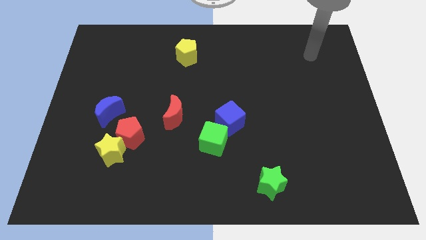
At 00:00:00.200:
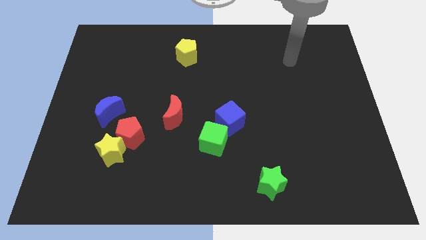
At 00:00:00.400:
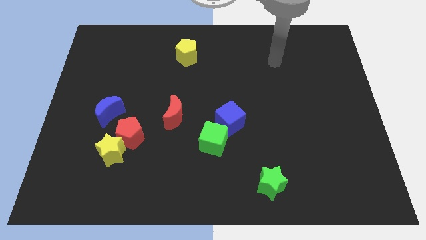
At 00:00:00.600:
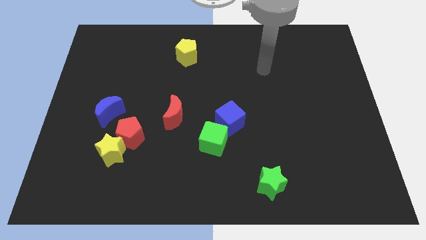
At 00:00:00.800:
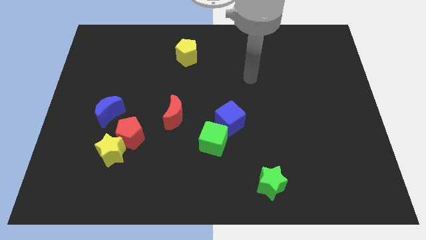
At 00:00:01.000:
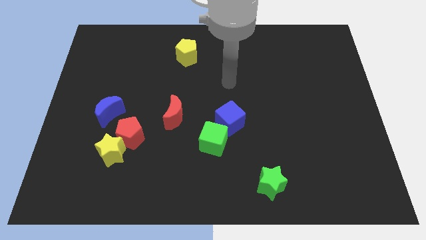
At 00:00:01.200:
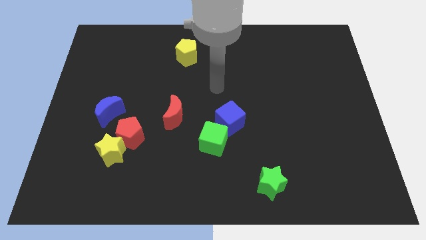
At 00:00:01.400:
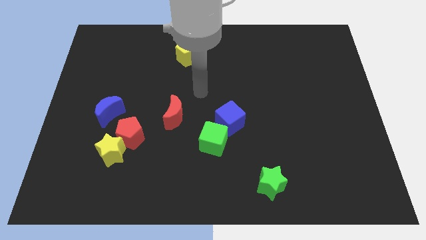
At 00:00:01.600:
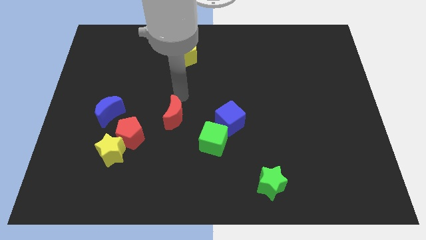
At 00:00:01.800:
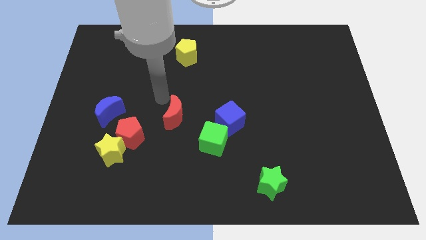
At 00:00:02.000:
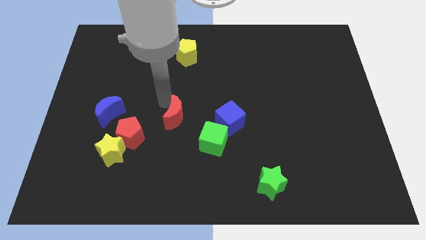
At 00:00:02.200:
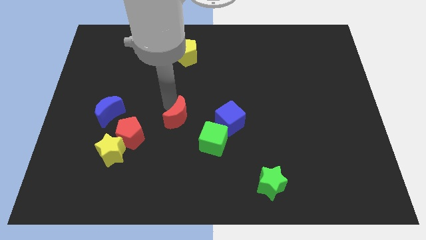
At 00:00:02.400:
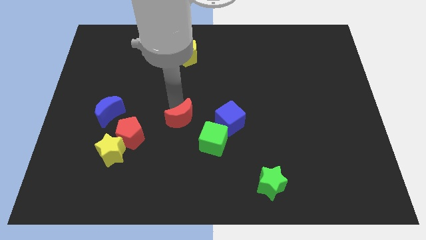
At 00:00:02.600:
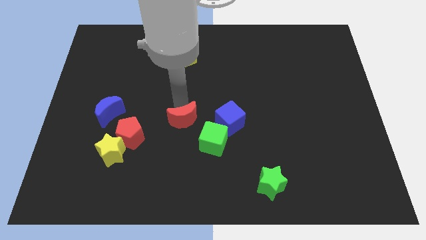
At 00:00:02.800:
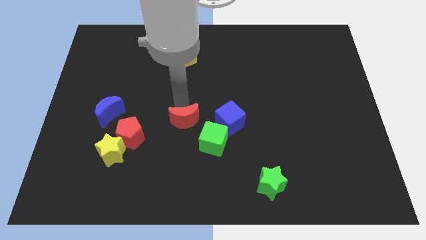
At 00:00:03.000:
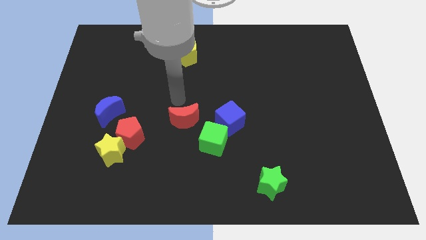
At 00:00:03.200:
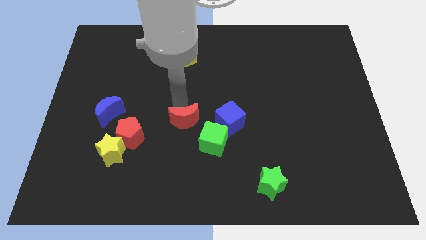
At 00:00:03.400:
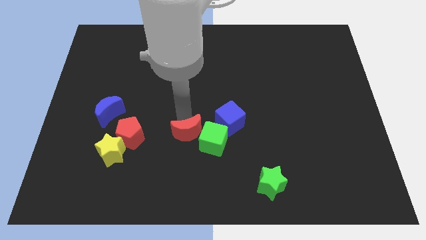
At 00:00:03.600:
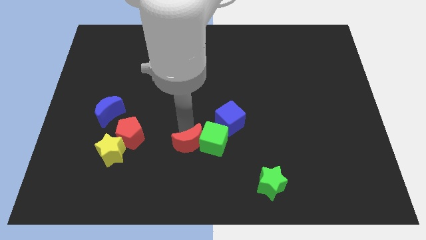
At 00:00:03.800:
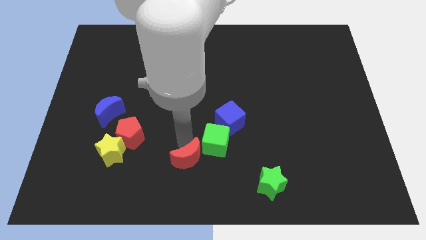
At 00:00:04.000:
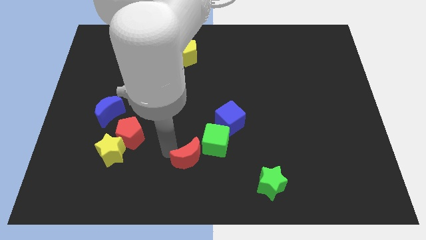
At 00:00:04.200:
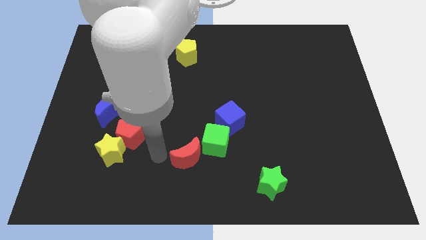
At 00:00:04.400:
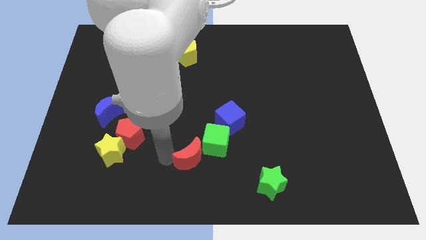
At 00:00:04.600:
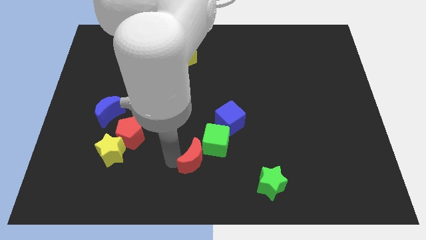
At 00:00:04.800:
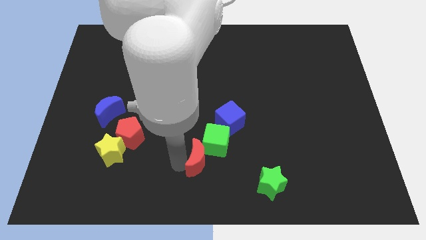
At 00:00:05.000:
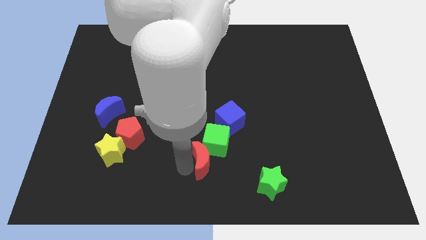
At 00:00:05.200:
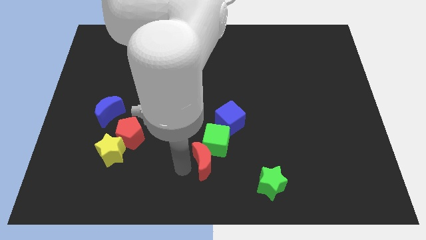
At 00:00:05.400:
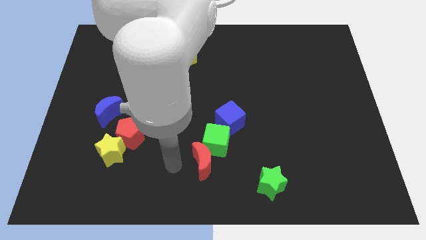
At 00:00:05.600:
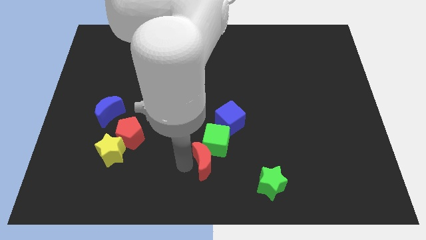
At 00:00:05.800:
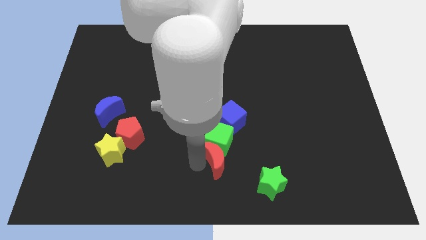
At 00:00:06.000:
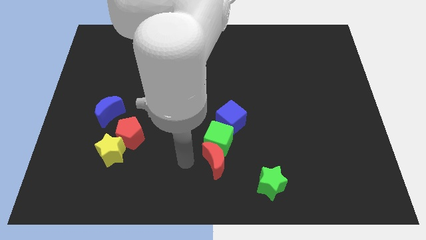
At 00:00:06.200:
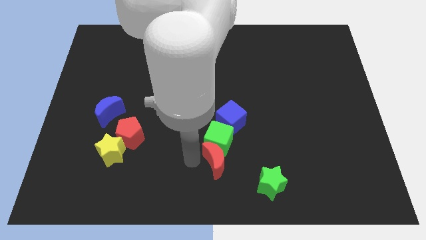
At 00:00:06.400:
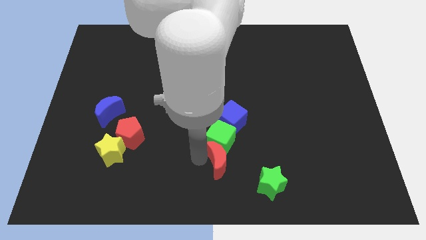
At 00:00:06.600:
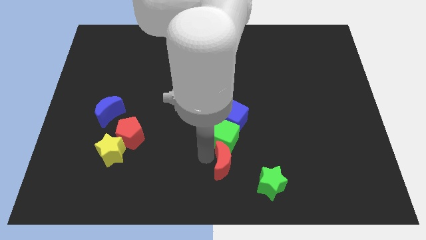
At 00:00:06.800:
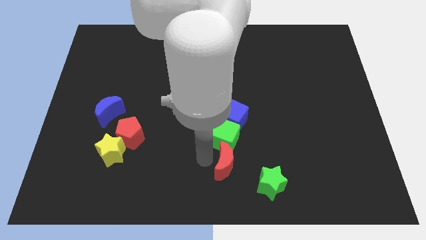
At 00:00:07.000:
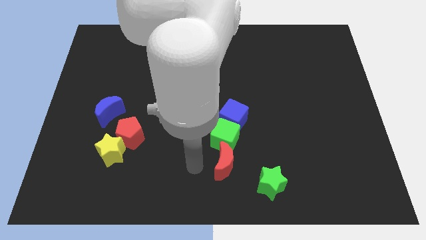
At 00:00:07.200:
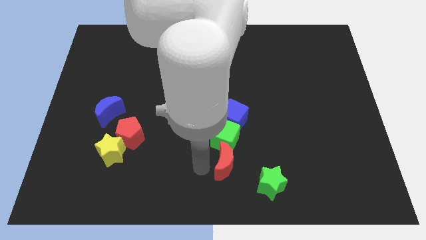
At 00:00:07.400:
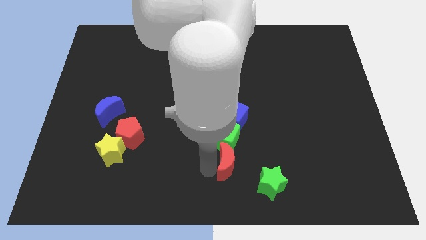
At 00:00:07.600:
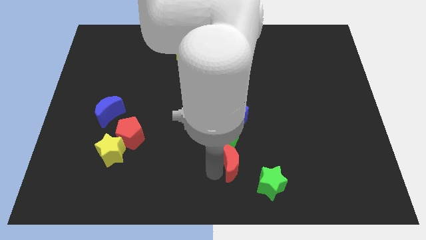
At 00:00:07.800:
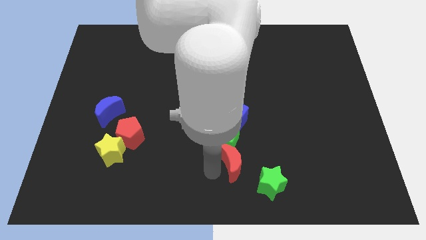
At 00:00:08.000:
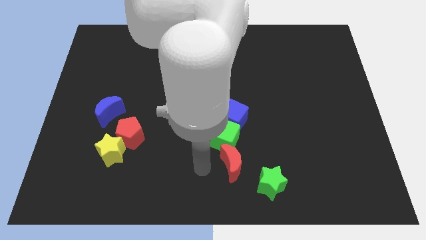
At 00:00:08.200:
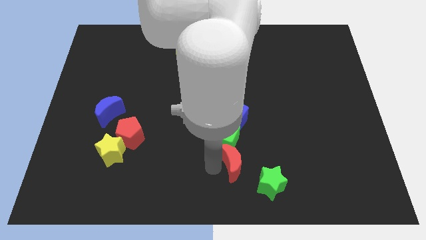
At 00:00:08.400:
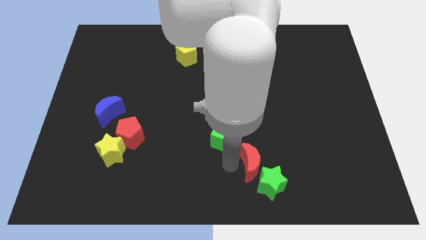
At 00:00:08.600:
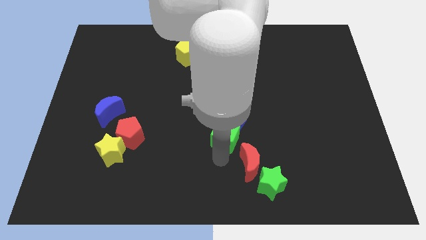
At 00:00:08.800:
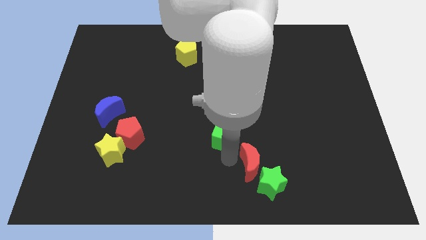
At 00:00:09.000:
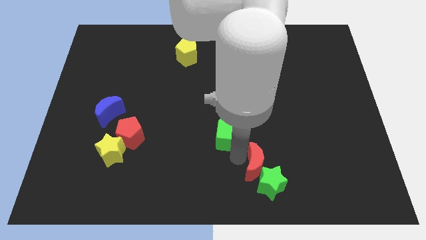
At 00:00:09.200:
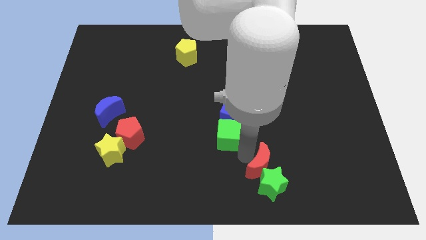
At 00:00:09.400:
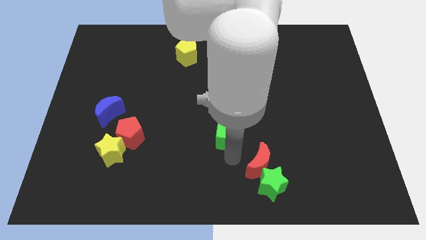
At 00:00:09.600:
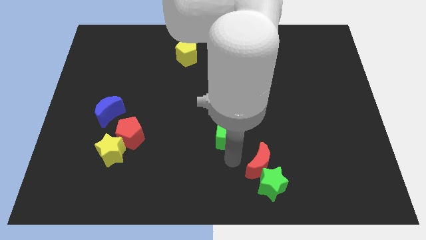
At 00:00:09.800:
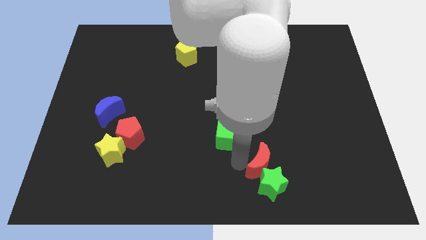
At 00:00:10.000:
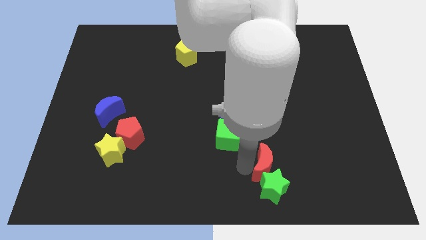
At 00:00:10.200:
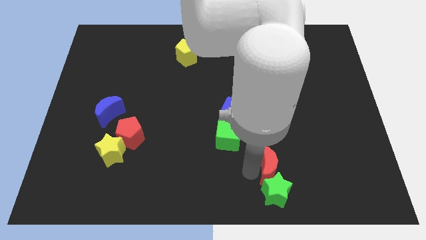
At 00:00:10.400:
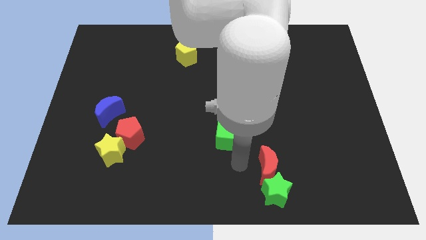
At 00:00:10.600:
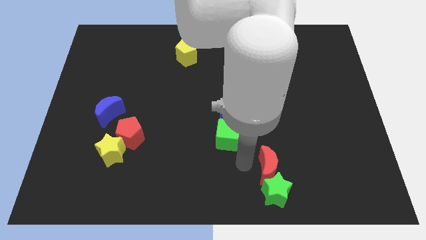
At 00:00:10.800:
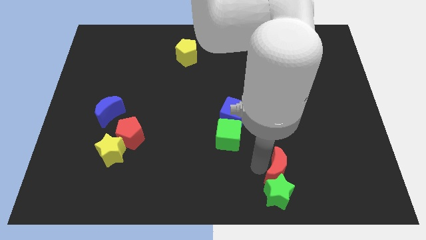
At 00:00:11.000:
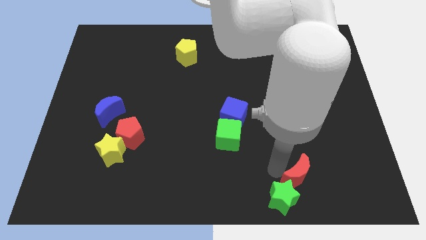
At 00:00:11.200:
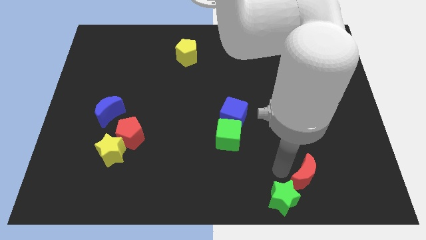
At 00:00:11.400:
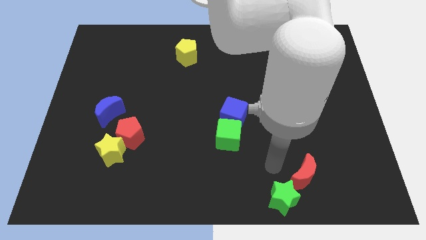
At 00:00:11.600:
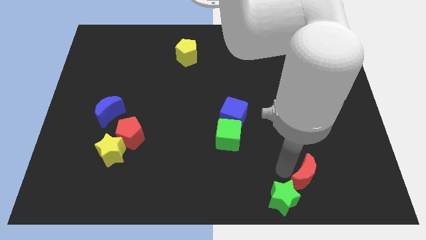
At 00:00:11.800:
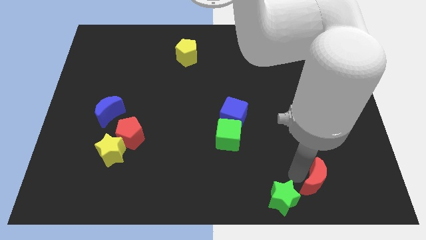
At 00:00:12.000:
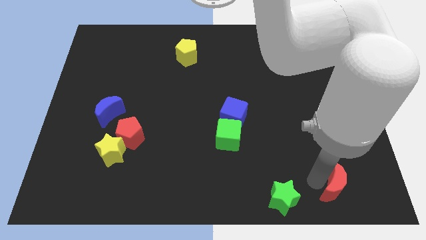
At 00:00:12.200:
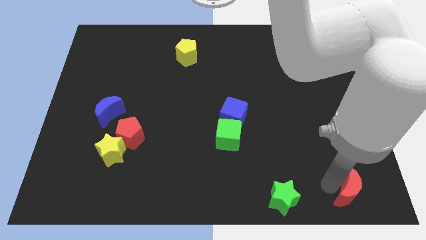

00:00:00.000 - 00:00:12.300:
put the red moon to the bottom right

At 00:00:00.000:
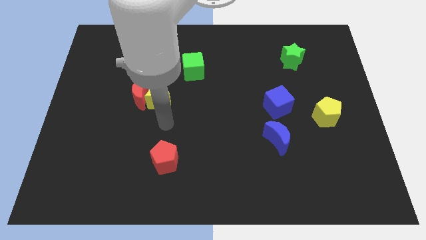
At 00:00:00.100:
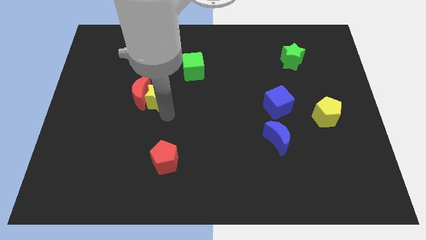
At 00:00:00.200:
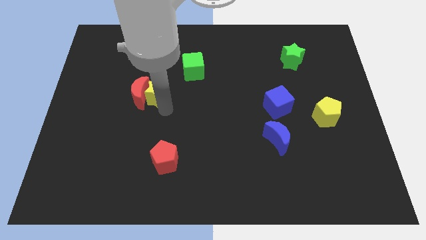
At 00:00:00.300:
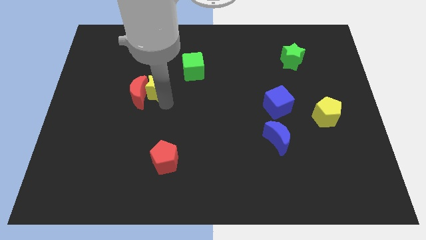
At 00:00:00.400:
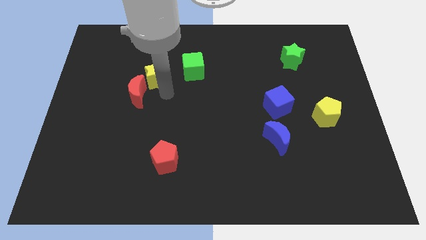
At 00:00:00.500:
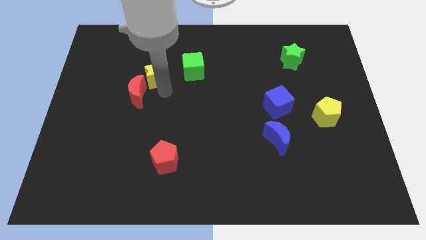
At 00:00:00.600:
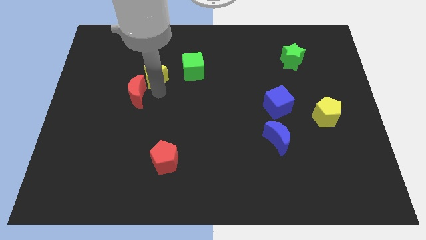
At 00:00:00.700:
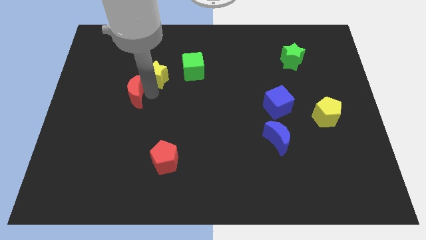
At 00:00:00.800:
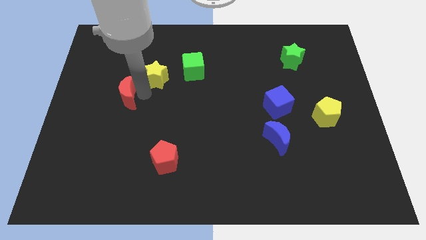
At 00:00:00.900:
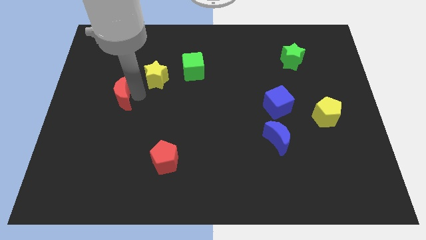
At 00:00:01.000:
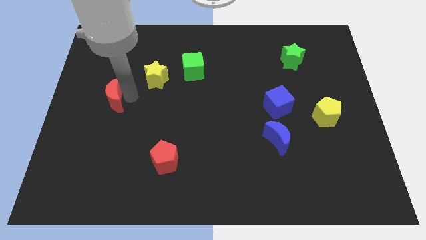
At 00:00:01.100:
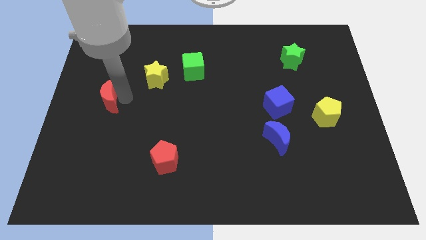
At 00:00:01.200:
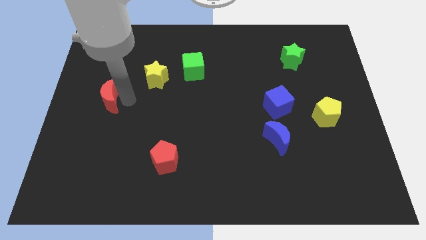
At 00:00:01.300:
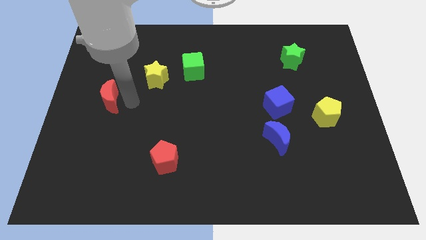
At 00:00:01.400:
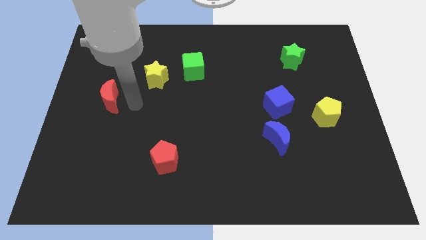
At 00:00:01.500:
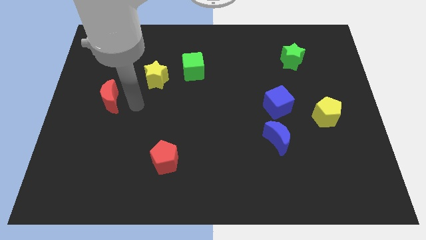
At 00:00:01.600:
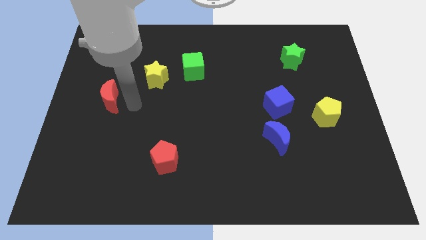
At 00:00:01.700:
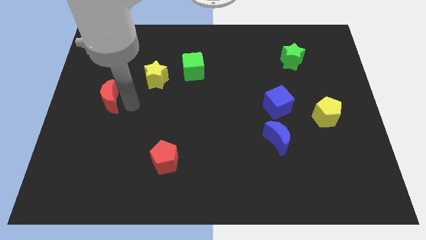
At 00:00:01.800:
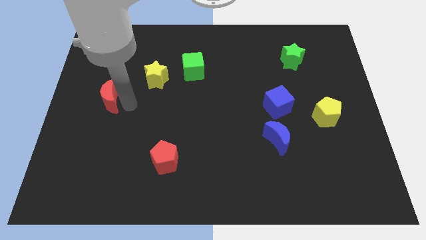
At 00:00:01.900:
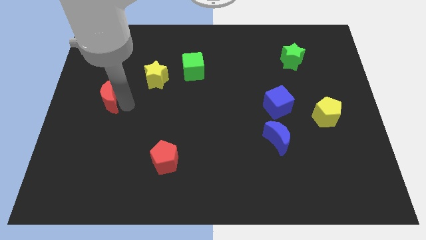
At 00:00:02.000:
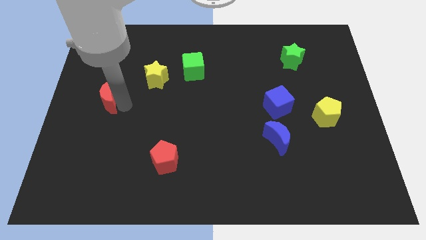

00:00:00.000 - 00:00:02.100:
move the red moon to the left side
